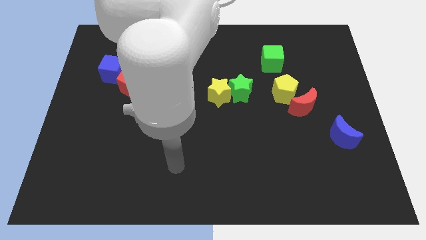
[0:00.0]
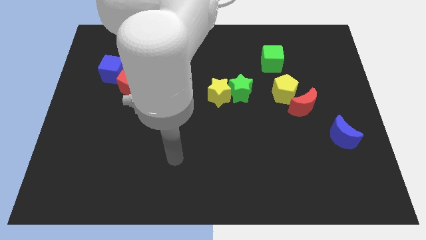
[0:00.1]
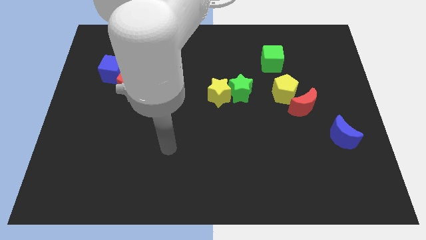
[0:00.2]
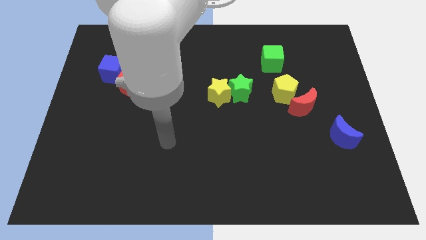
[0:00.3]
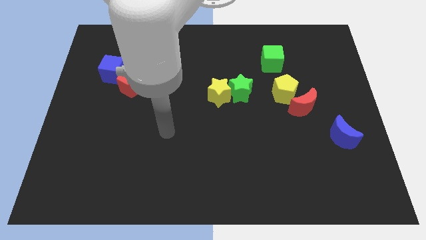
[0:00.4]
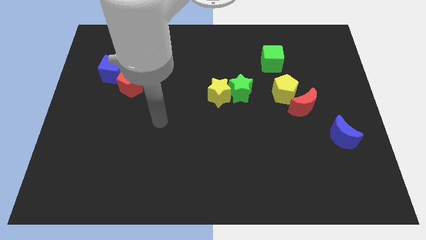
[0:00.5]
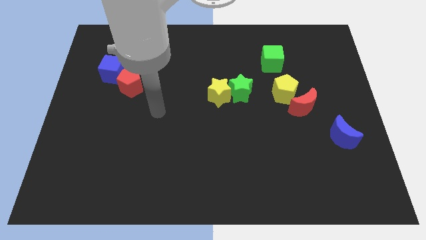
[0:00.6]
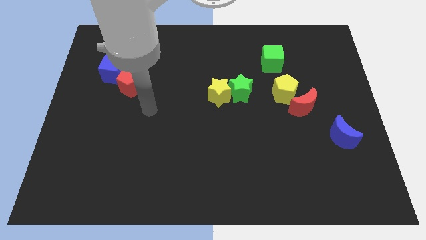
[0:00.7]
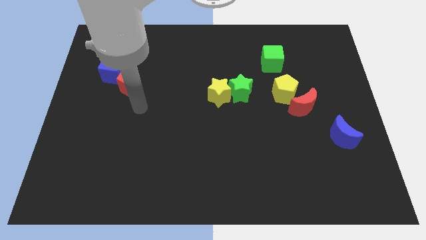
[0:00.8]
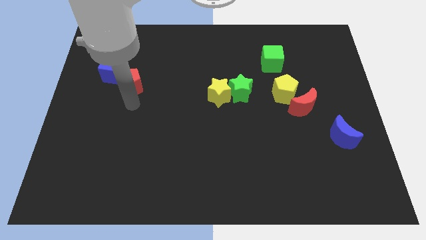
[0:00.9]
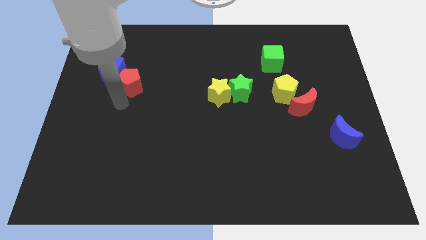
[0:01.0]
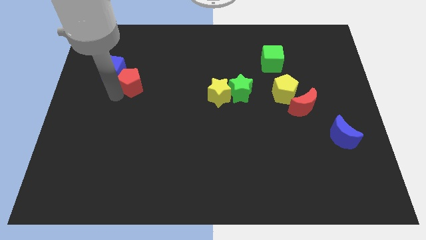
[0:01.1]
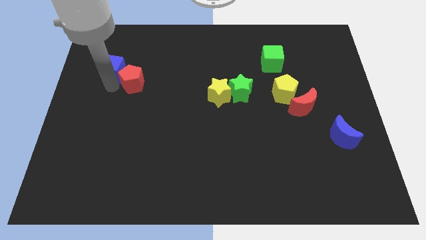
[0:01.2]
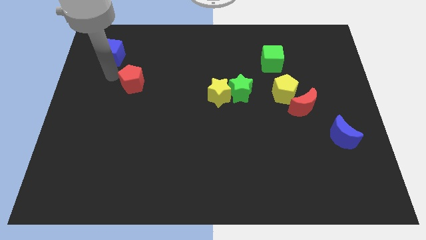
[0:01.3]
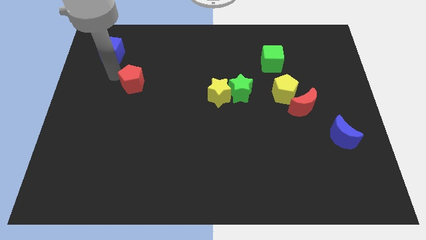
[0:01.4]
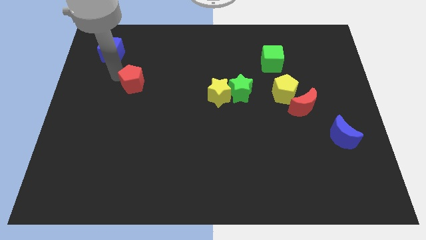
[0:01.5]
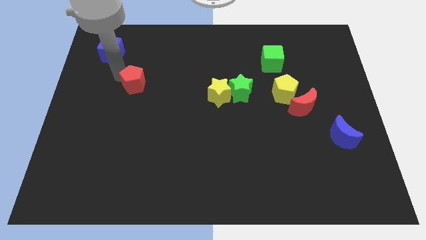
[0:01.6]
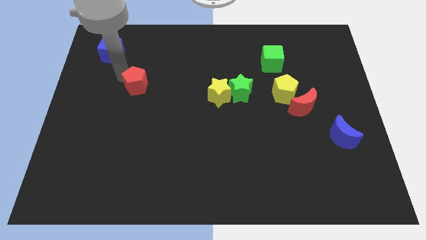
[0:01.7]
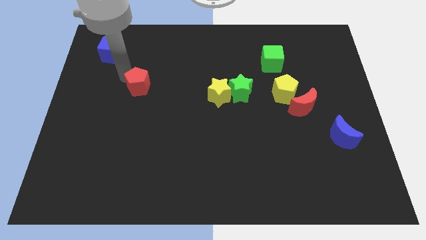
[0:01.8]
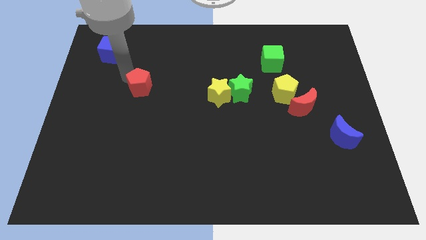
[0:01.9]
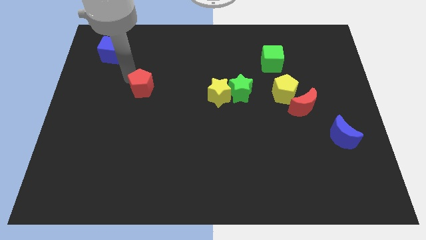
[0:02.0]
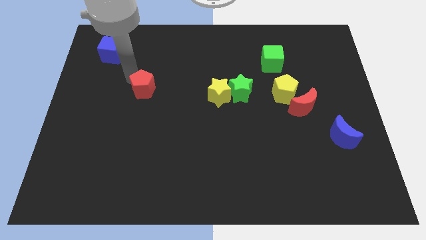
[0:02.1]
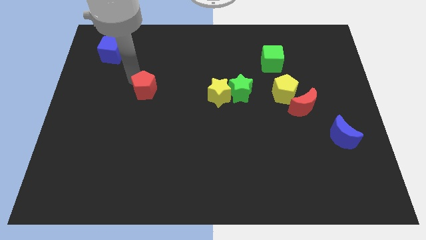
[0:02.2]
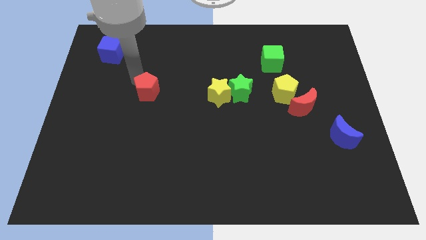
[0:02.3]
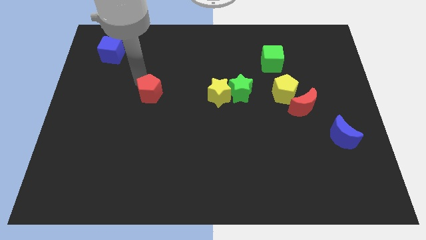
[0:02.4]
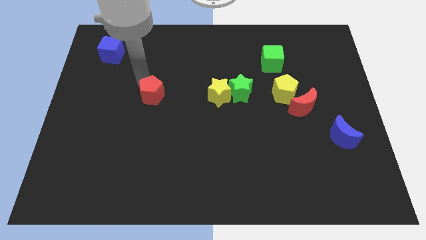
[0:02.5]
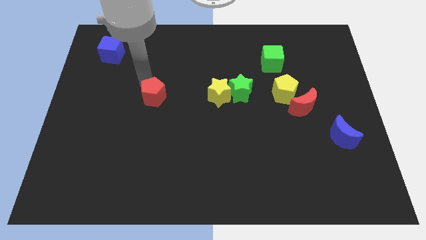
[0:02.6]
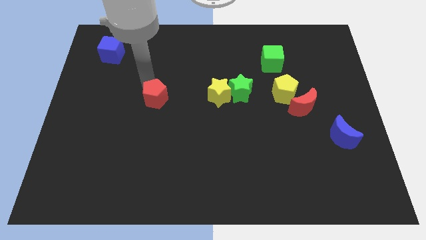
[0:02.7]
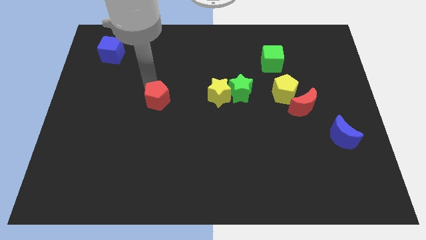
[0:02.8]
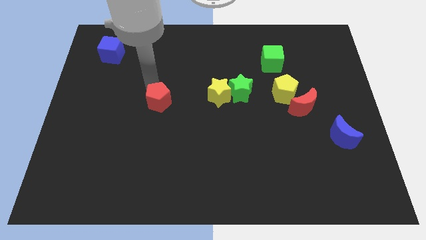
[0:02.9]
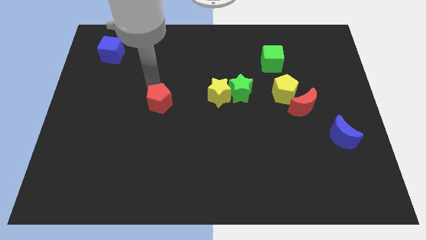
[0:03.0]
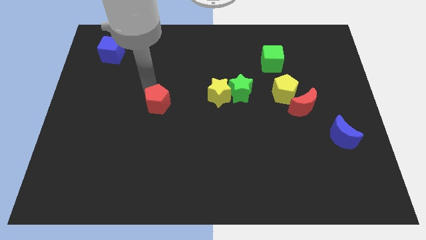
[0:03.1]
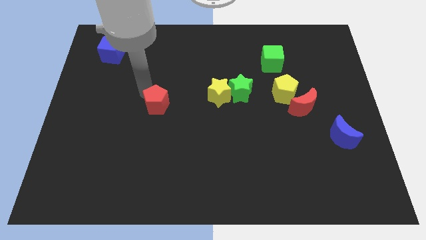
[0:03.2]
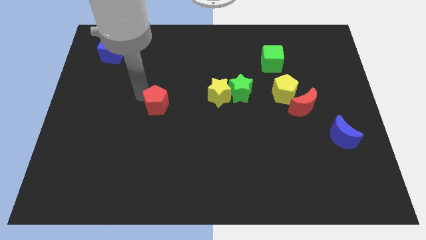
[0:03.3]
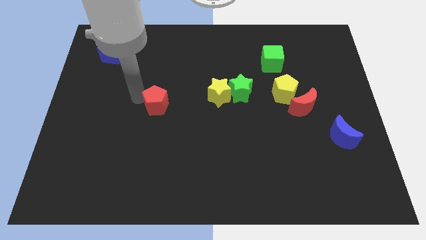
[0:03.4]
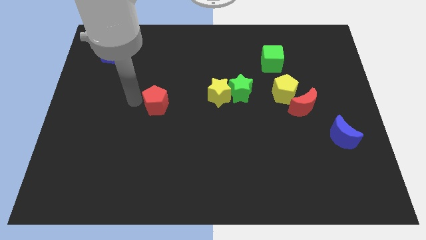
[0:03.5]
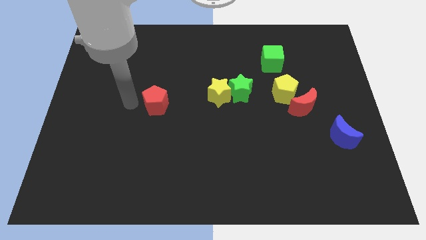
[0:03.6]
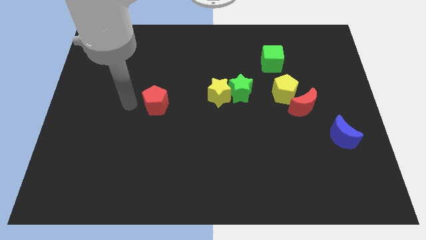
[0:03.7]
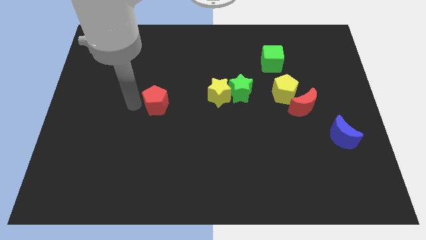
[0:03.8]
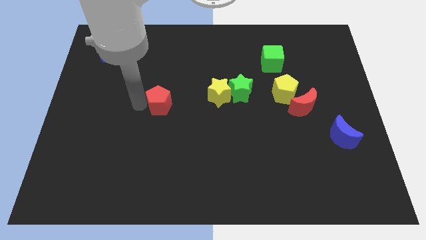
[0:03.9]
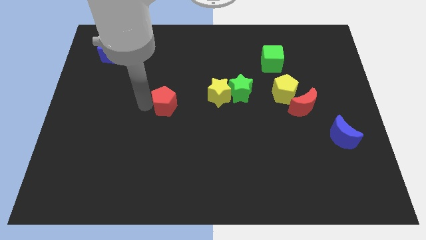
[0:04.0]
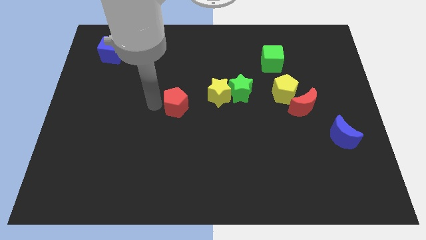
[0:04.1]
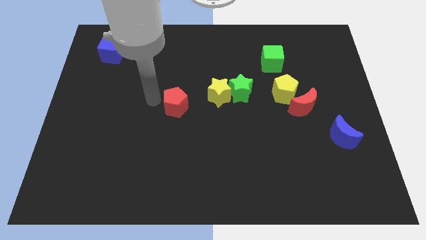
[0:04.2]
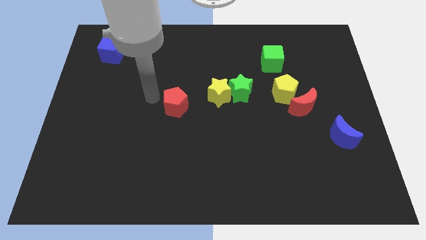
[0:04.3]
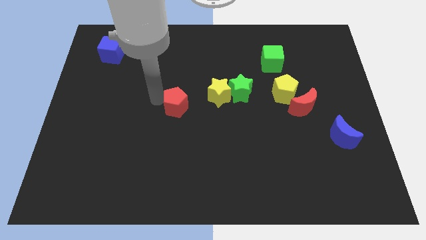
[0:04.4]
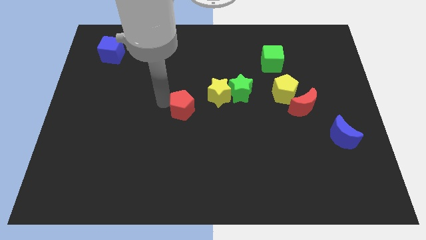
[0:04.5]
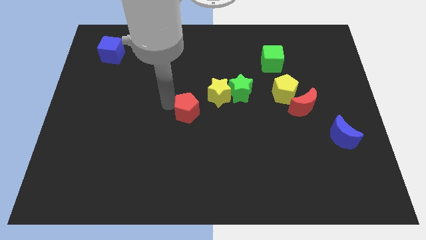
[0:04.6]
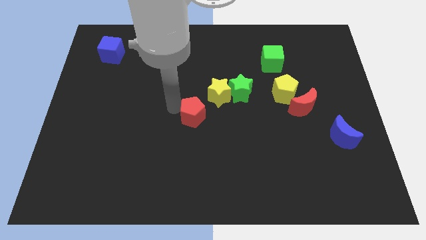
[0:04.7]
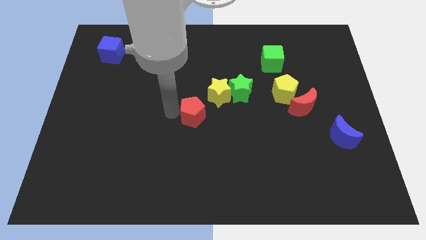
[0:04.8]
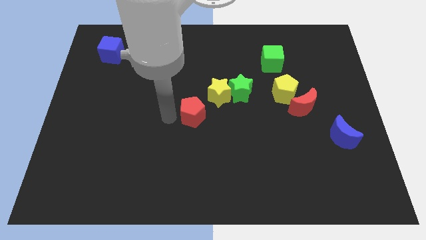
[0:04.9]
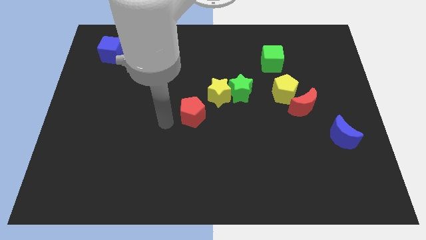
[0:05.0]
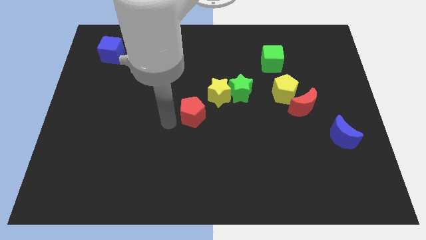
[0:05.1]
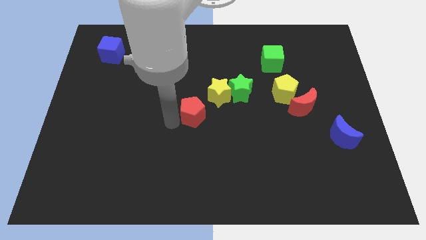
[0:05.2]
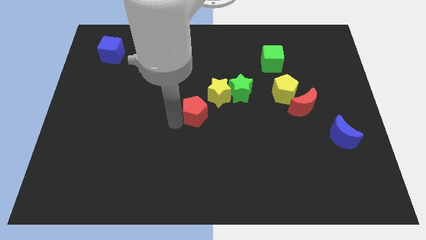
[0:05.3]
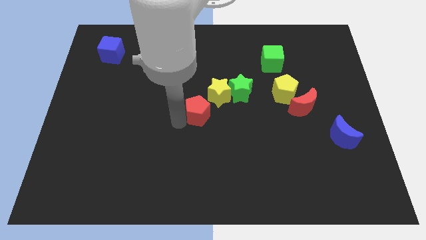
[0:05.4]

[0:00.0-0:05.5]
move the red pentagon diagonally down and to the left of the green star

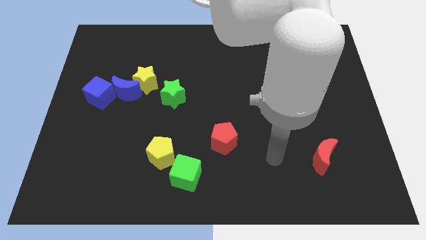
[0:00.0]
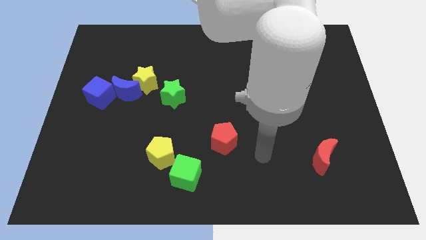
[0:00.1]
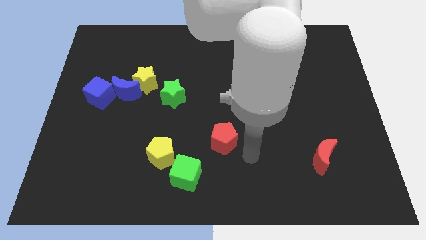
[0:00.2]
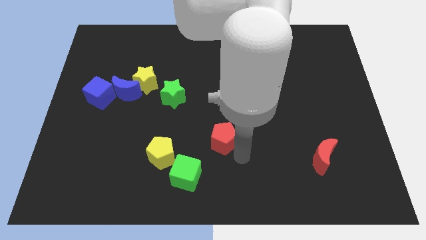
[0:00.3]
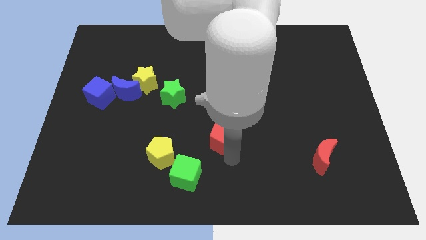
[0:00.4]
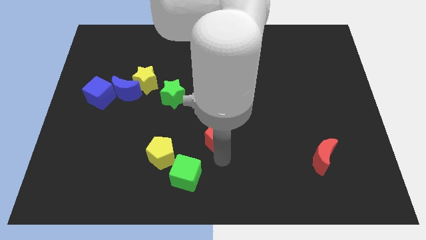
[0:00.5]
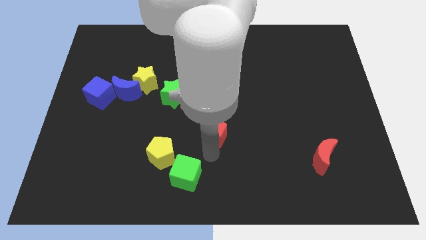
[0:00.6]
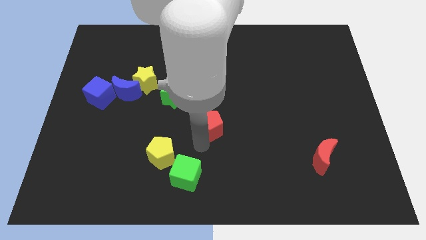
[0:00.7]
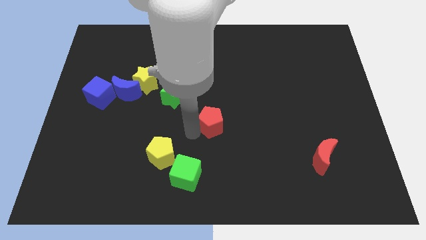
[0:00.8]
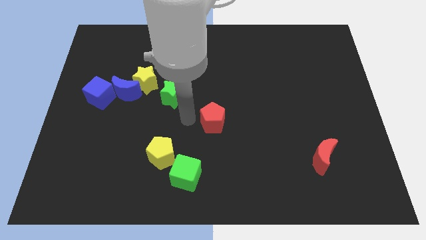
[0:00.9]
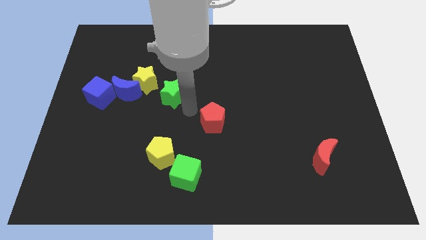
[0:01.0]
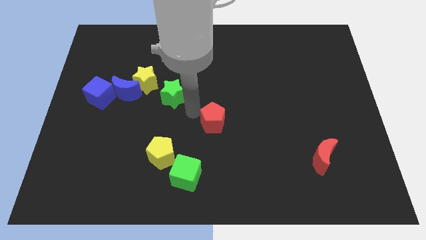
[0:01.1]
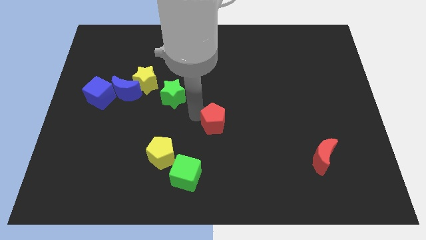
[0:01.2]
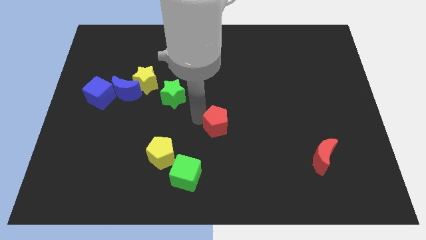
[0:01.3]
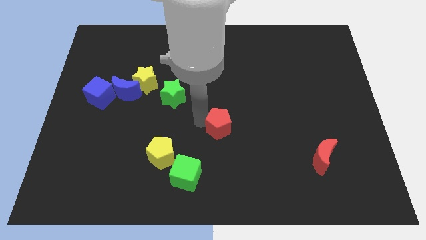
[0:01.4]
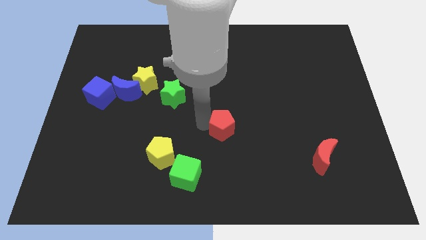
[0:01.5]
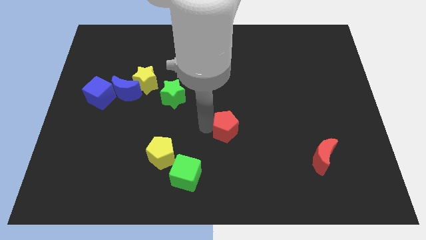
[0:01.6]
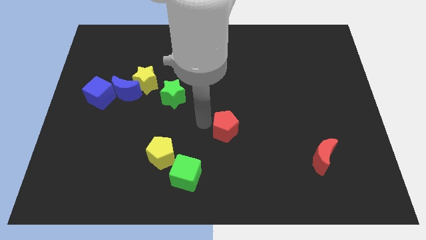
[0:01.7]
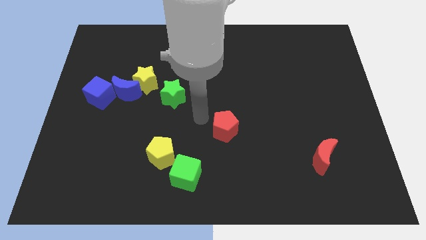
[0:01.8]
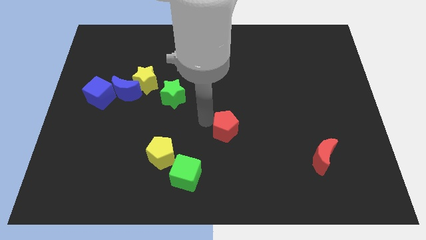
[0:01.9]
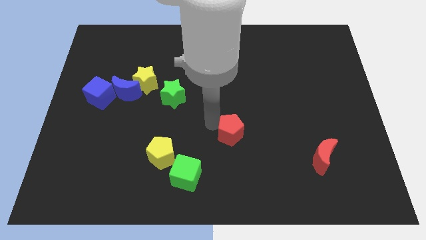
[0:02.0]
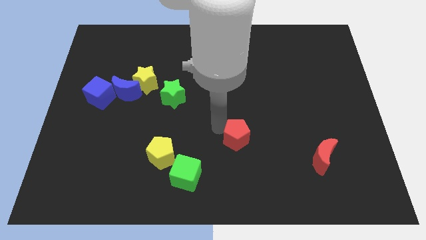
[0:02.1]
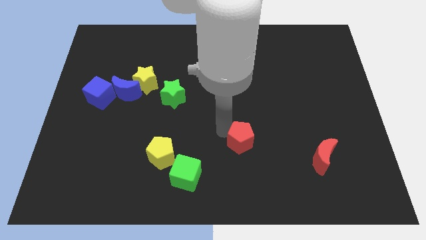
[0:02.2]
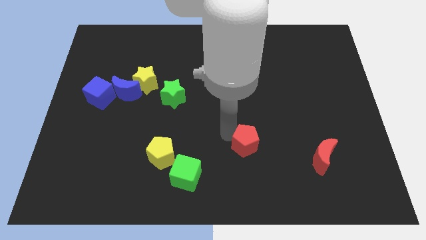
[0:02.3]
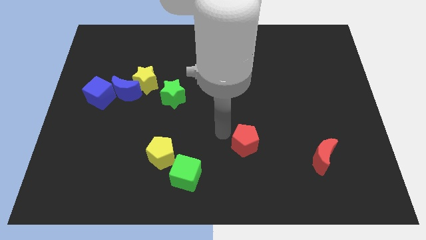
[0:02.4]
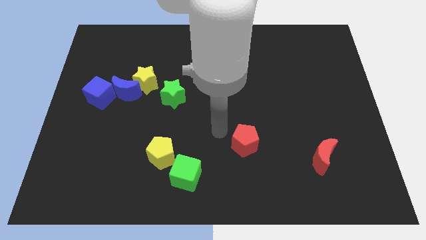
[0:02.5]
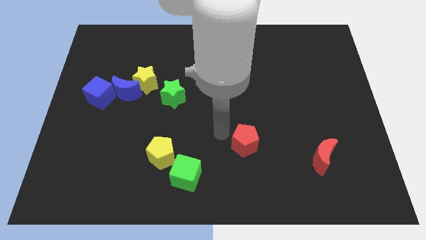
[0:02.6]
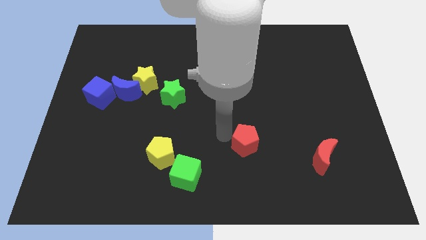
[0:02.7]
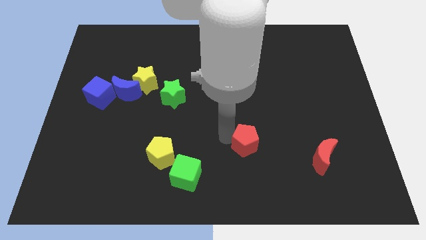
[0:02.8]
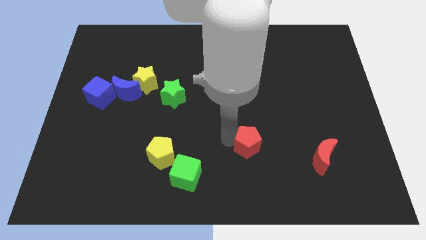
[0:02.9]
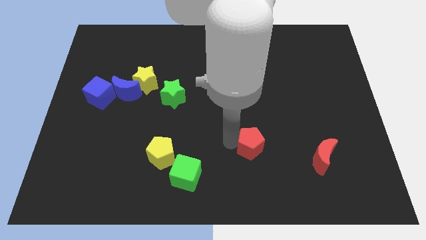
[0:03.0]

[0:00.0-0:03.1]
push the red pentagon just left of the red moon
